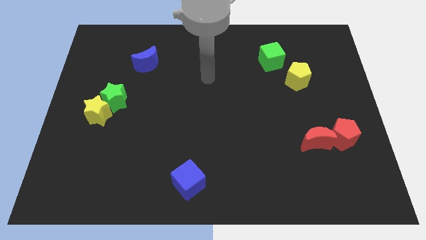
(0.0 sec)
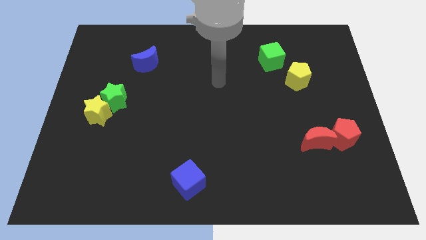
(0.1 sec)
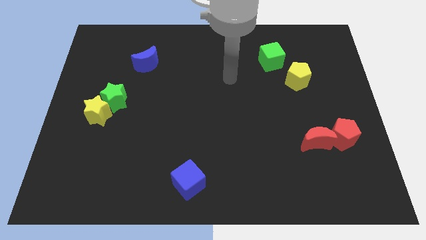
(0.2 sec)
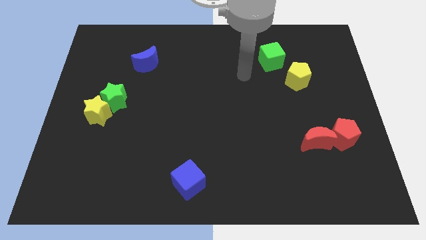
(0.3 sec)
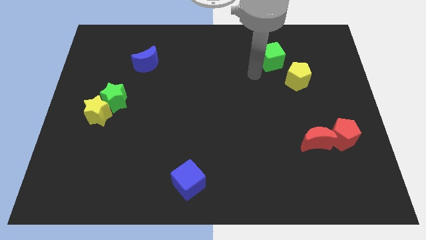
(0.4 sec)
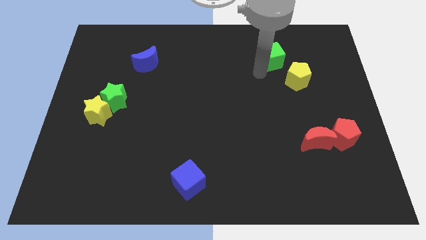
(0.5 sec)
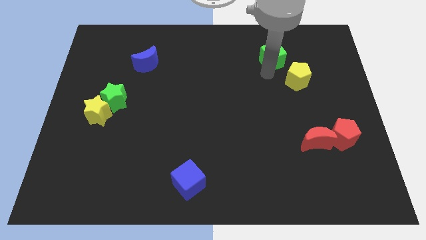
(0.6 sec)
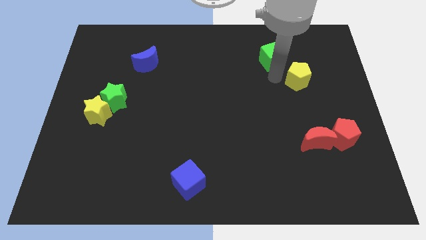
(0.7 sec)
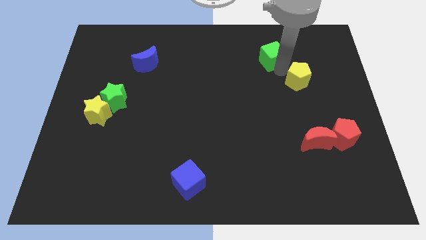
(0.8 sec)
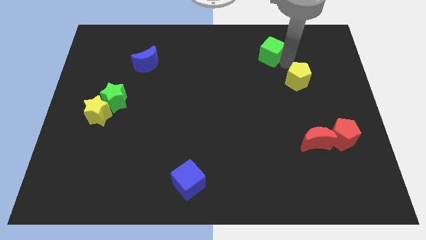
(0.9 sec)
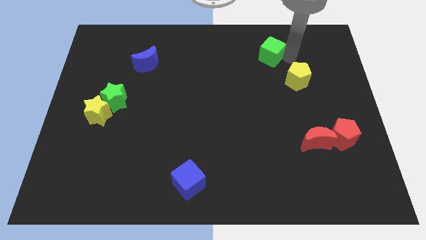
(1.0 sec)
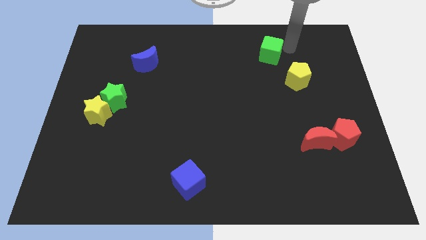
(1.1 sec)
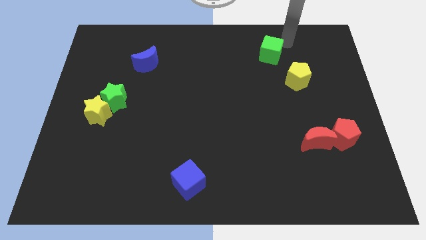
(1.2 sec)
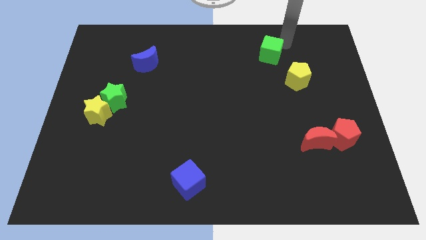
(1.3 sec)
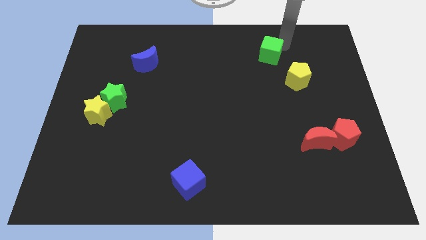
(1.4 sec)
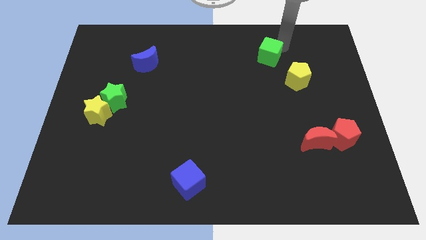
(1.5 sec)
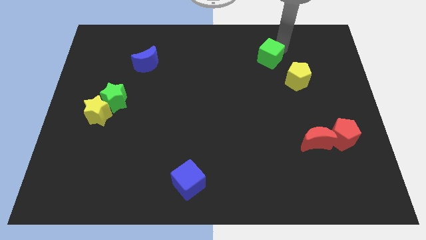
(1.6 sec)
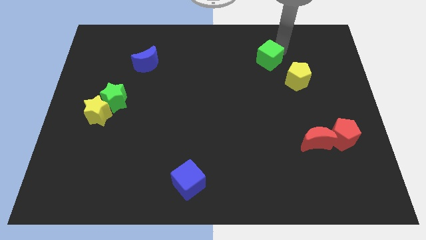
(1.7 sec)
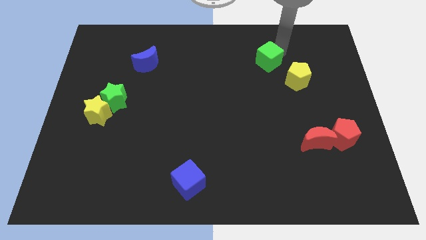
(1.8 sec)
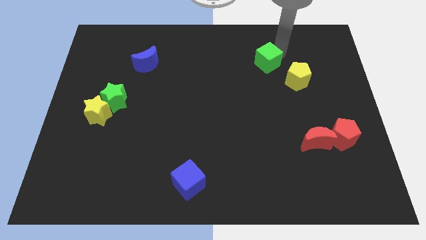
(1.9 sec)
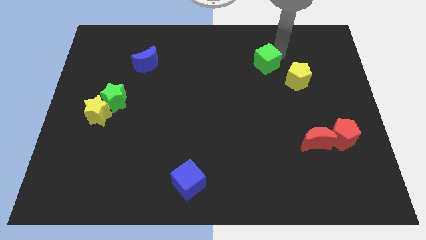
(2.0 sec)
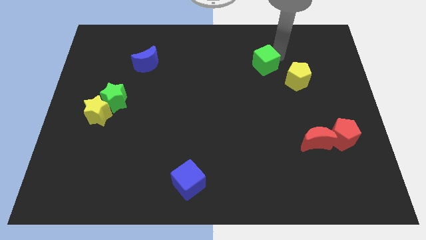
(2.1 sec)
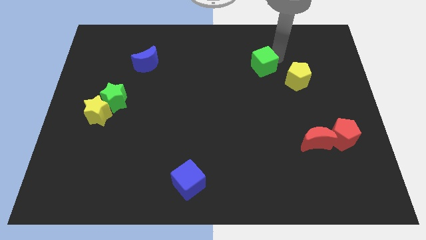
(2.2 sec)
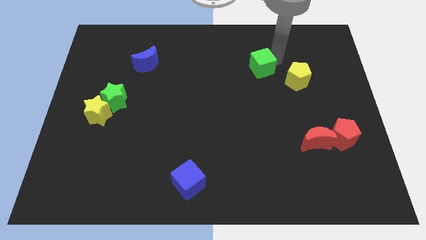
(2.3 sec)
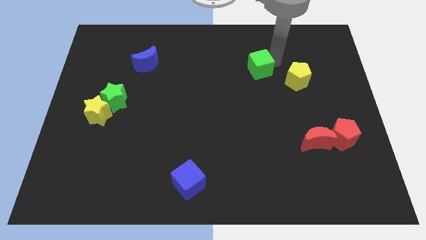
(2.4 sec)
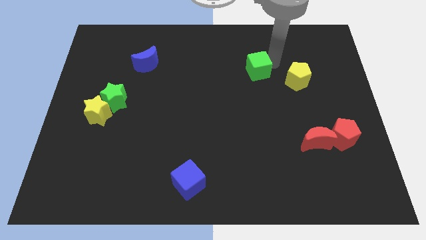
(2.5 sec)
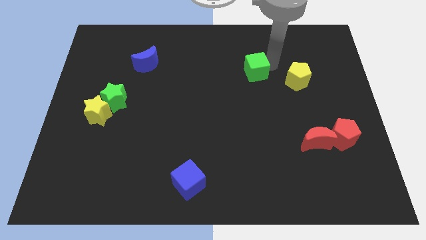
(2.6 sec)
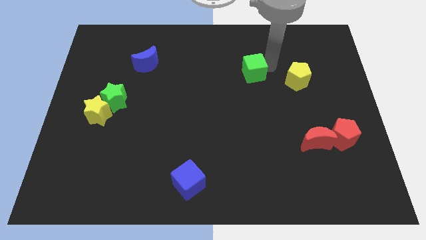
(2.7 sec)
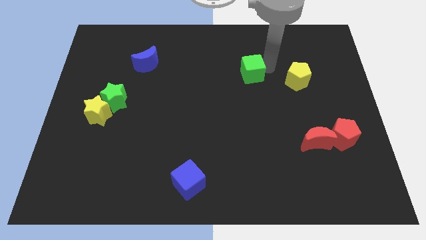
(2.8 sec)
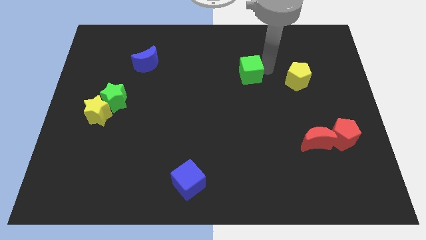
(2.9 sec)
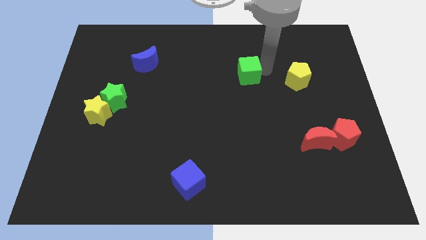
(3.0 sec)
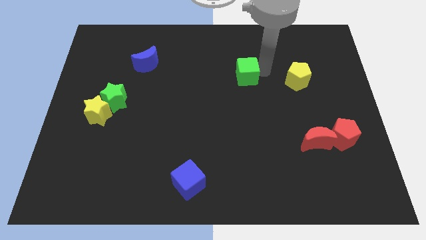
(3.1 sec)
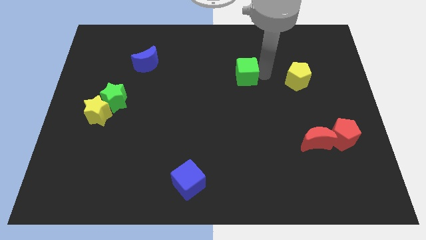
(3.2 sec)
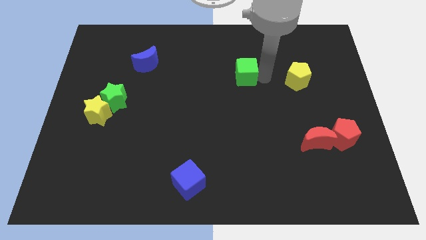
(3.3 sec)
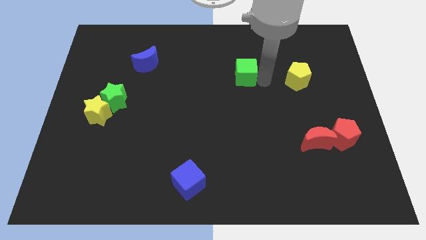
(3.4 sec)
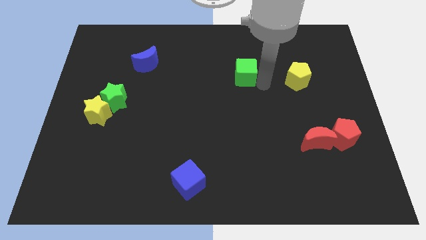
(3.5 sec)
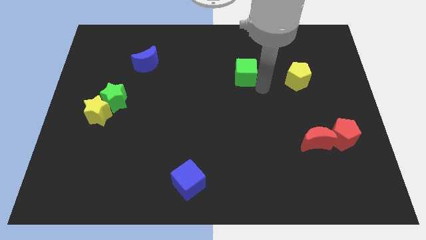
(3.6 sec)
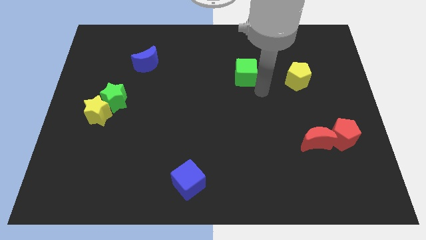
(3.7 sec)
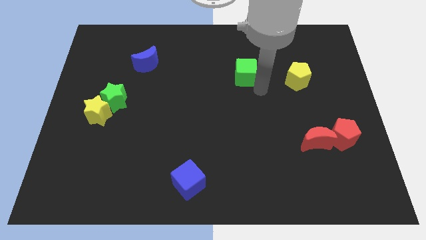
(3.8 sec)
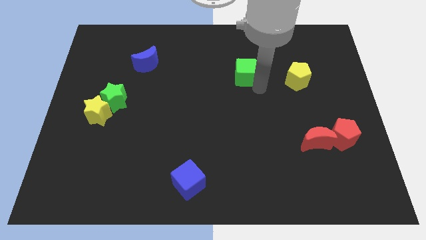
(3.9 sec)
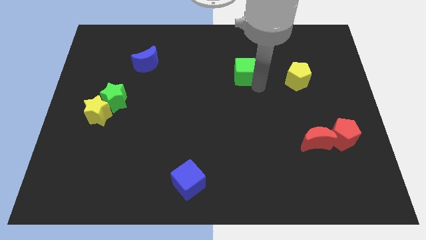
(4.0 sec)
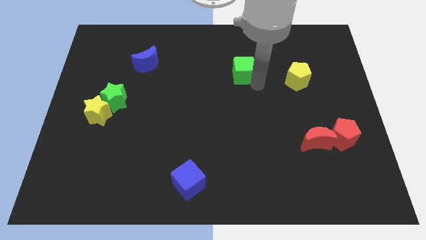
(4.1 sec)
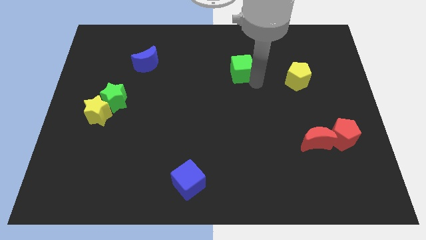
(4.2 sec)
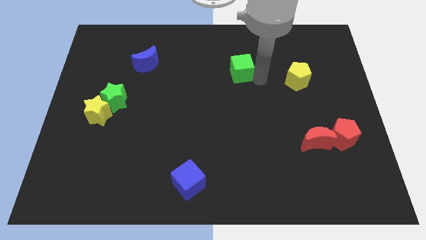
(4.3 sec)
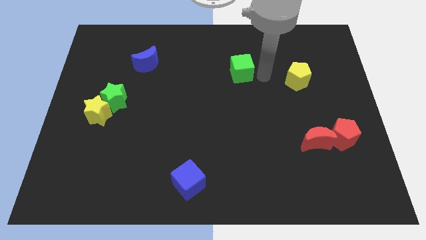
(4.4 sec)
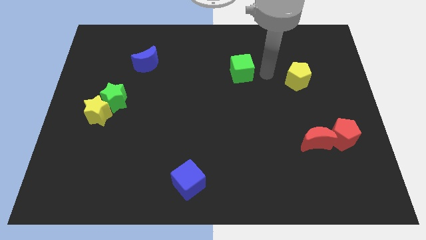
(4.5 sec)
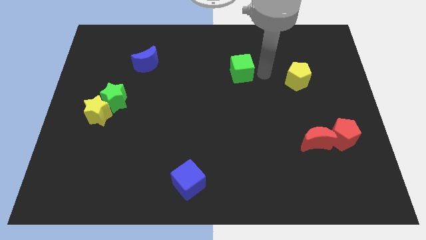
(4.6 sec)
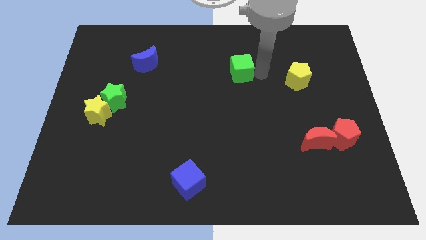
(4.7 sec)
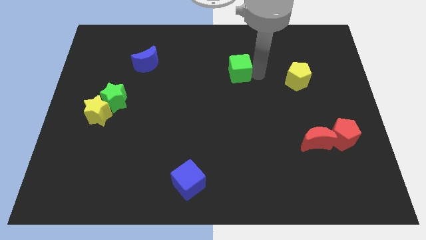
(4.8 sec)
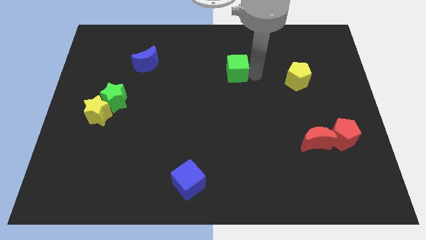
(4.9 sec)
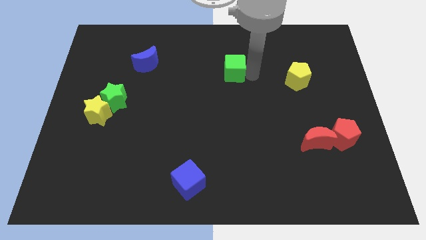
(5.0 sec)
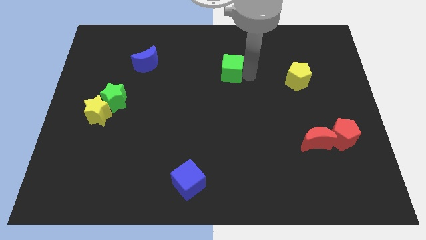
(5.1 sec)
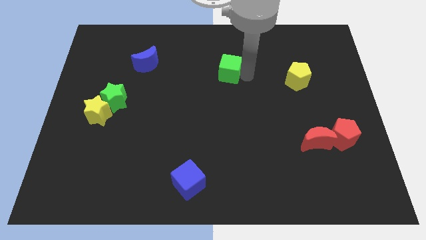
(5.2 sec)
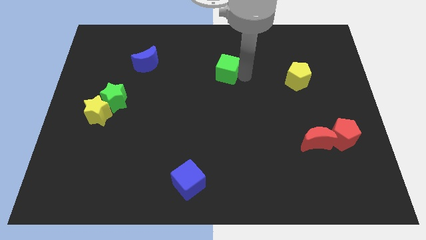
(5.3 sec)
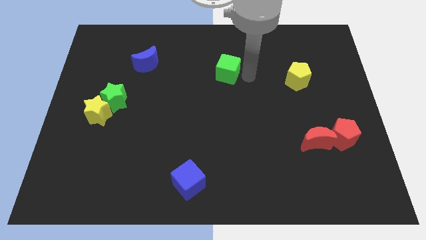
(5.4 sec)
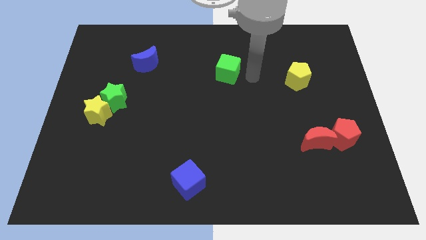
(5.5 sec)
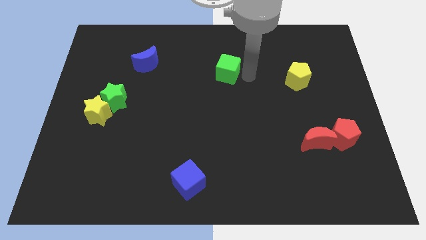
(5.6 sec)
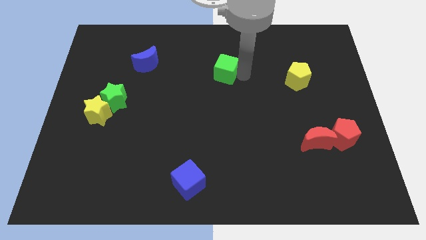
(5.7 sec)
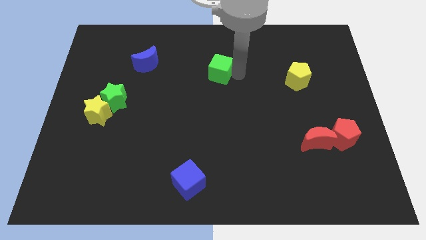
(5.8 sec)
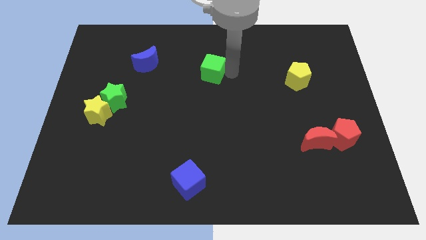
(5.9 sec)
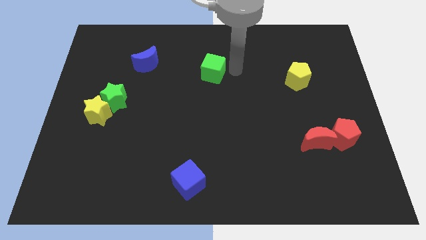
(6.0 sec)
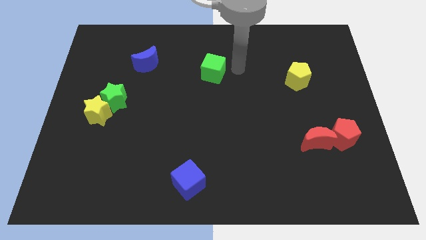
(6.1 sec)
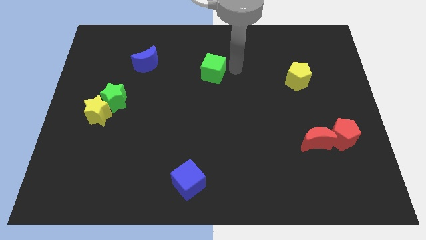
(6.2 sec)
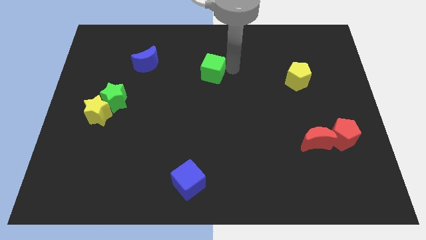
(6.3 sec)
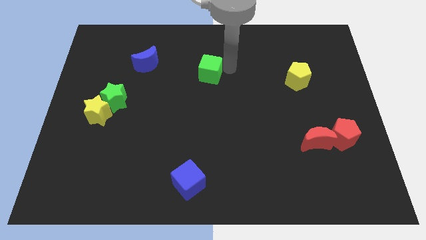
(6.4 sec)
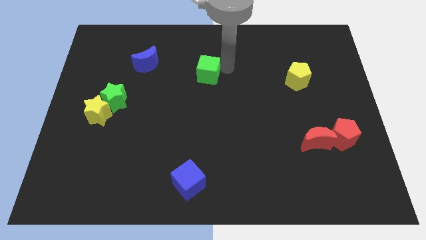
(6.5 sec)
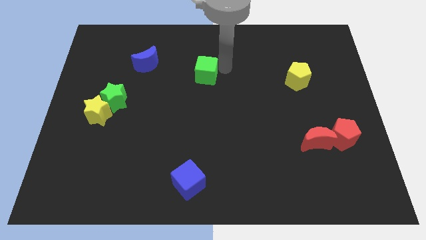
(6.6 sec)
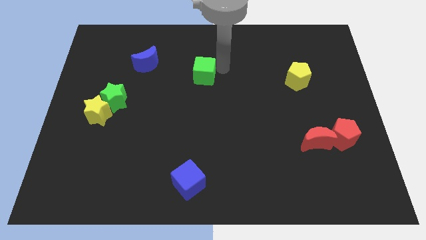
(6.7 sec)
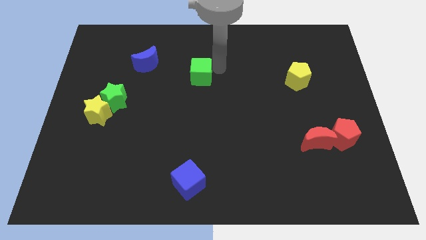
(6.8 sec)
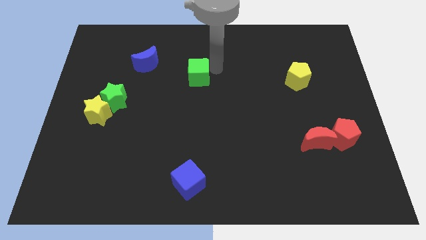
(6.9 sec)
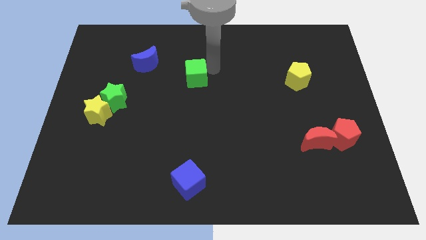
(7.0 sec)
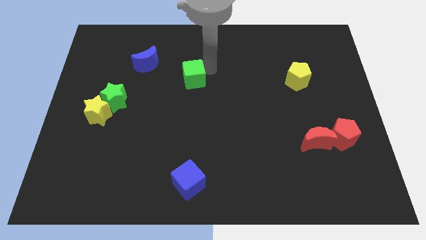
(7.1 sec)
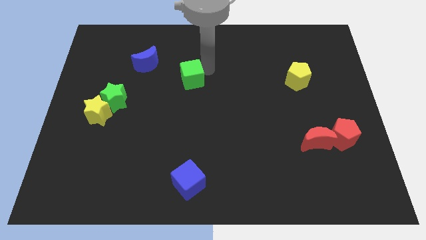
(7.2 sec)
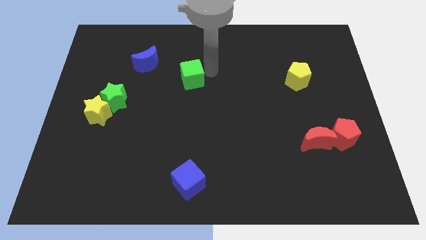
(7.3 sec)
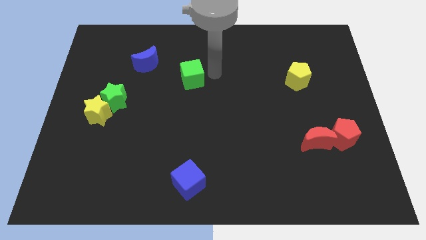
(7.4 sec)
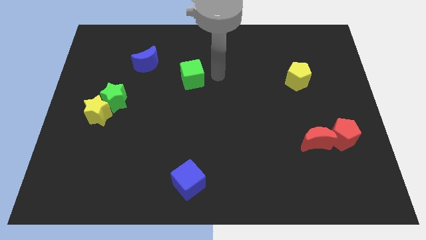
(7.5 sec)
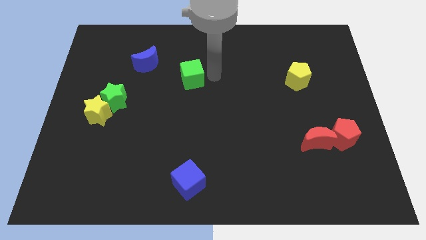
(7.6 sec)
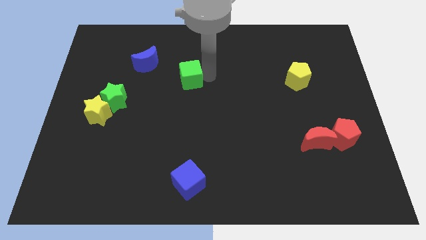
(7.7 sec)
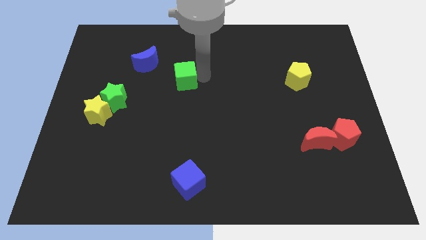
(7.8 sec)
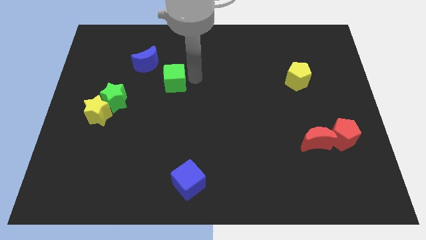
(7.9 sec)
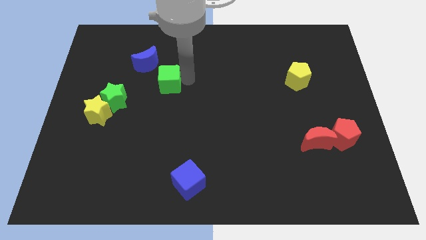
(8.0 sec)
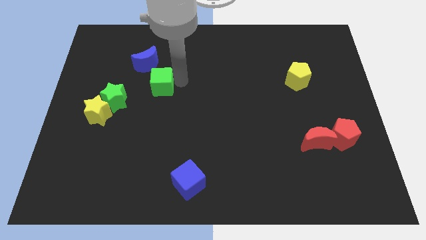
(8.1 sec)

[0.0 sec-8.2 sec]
put the green cube below the blue moon
